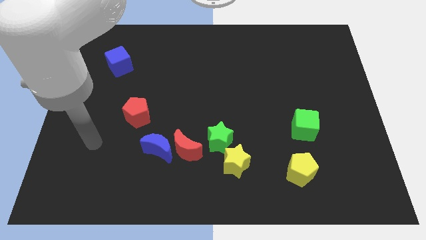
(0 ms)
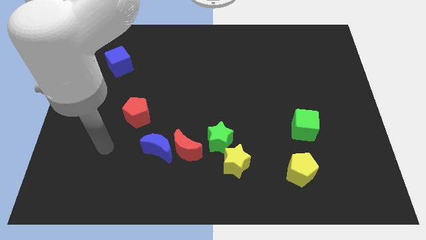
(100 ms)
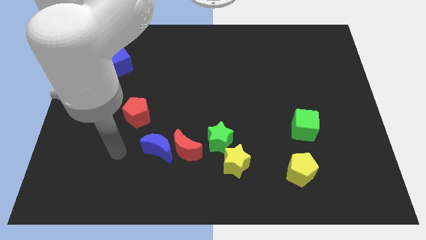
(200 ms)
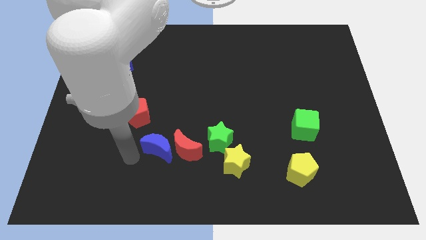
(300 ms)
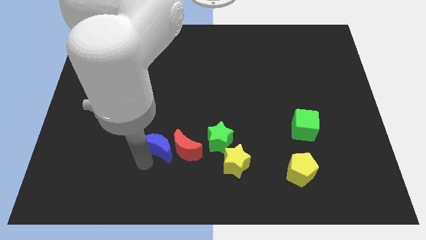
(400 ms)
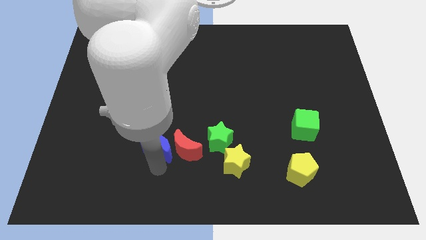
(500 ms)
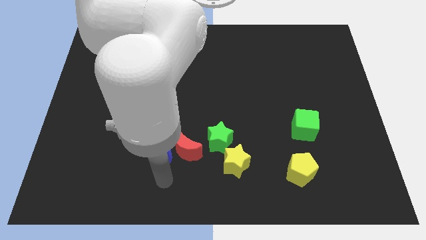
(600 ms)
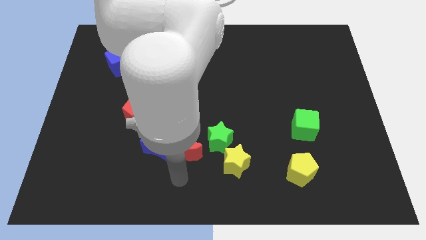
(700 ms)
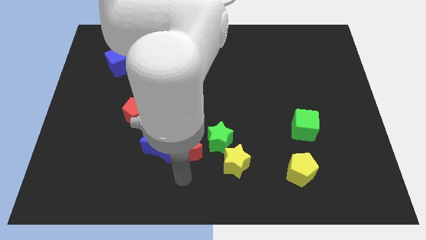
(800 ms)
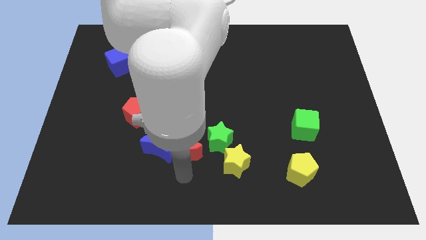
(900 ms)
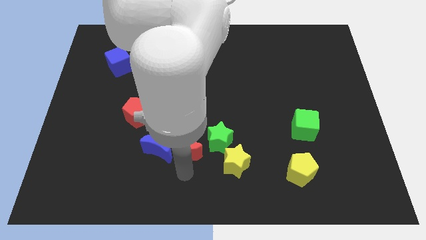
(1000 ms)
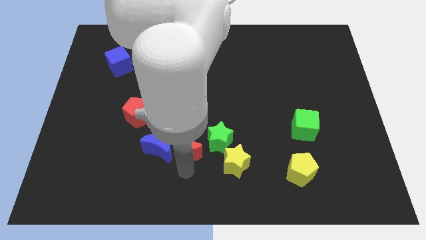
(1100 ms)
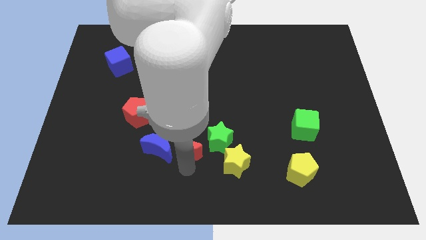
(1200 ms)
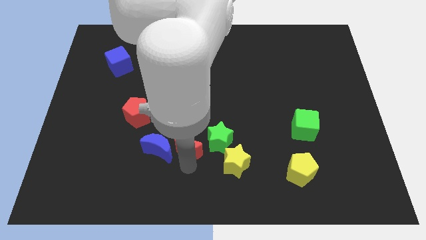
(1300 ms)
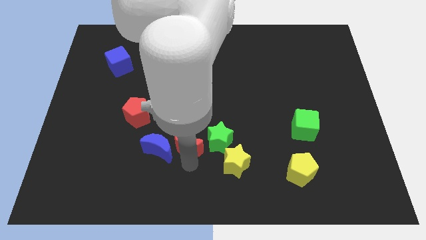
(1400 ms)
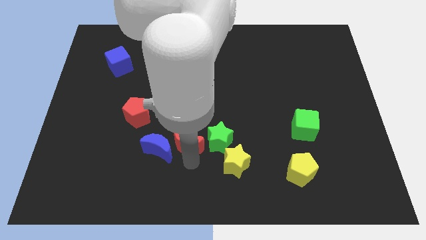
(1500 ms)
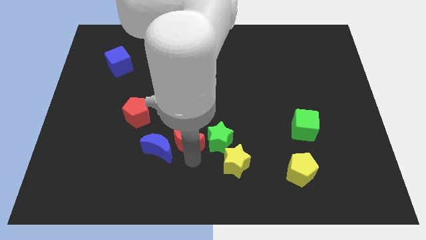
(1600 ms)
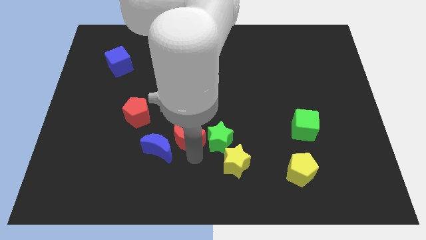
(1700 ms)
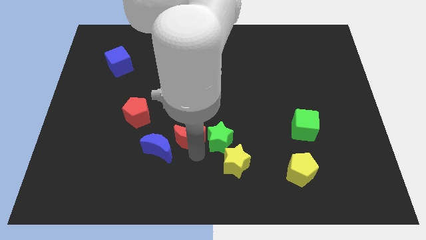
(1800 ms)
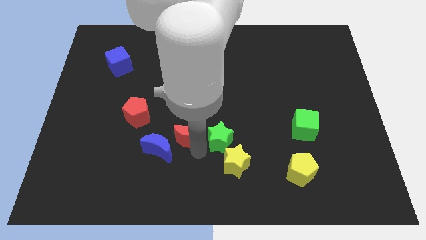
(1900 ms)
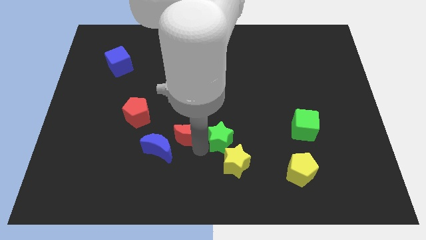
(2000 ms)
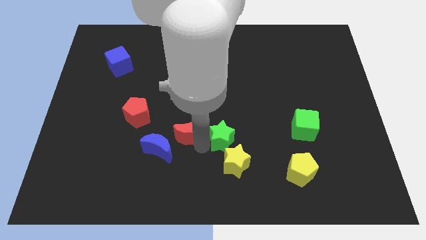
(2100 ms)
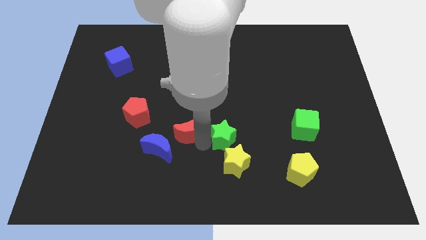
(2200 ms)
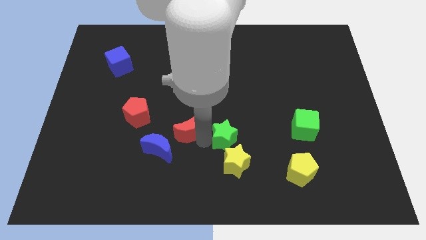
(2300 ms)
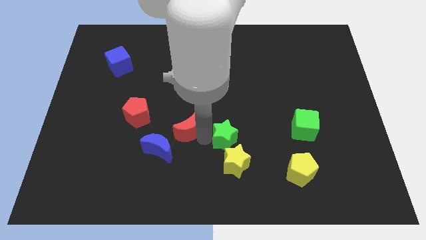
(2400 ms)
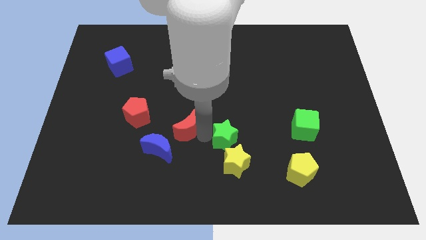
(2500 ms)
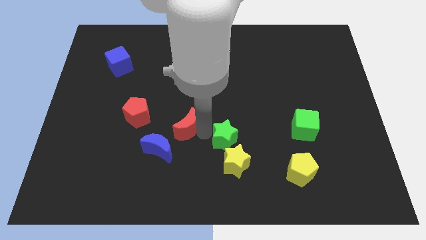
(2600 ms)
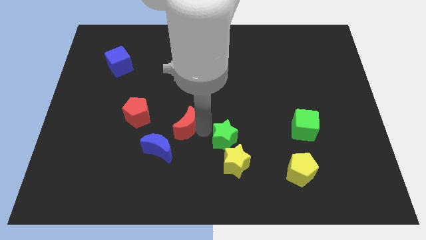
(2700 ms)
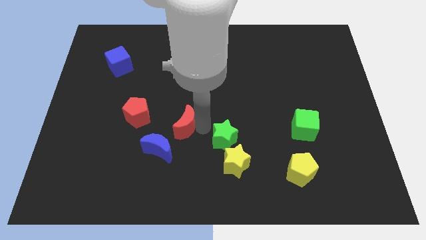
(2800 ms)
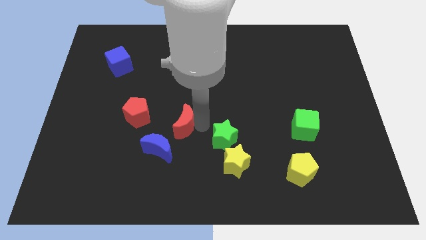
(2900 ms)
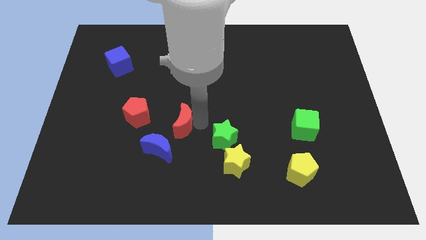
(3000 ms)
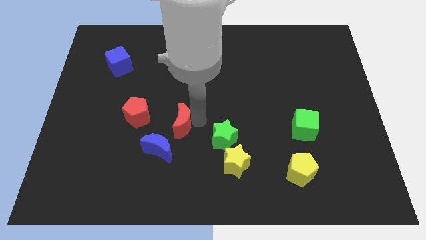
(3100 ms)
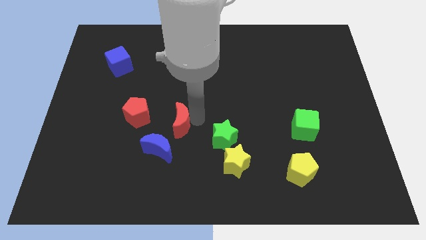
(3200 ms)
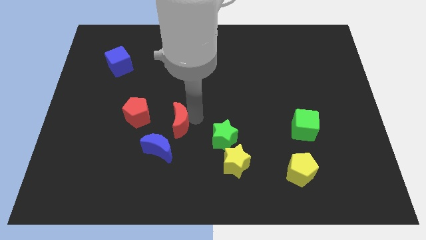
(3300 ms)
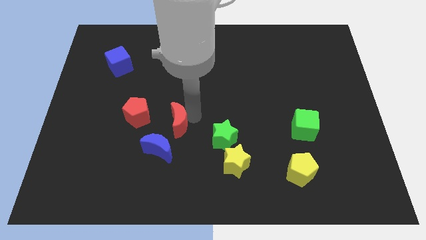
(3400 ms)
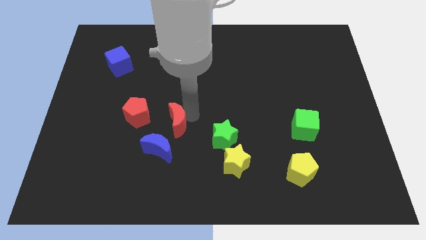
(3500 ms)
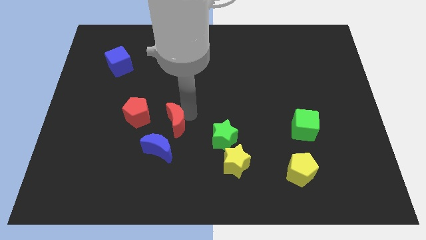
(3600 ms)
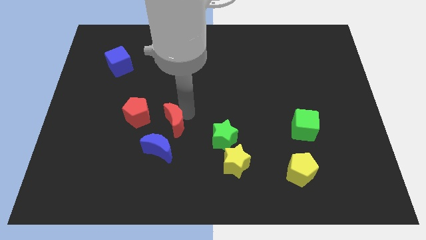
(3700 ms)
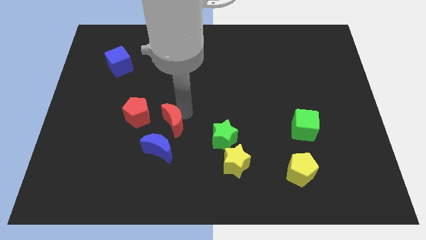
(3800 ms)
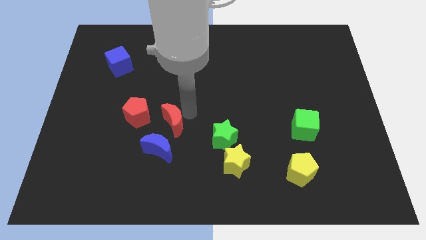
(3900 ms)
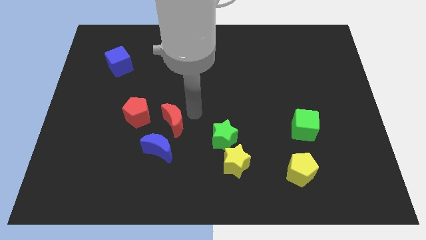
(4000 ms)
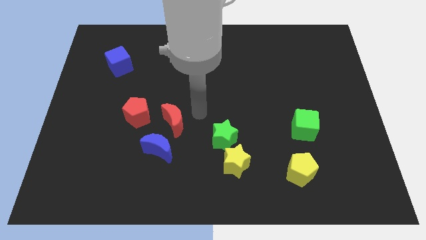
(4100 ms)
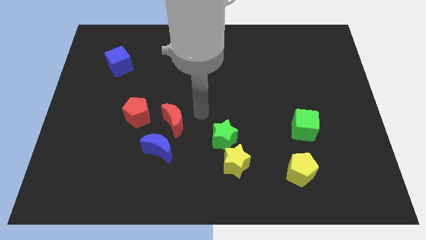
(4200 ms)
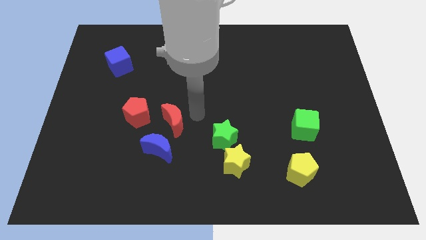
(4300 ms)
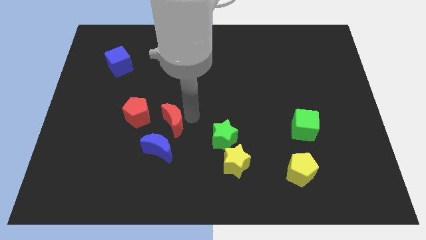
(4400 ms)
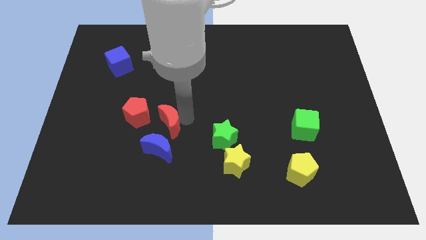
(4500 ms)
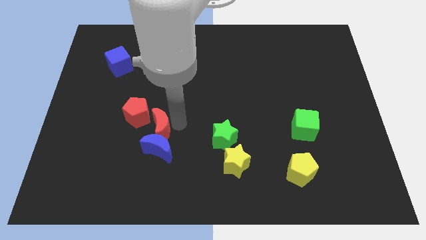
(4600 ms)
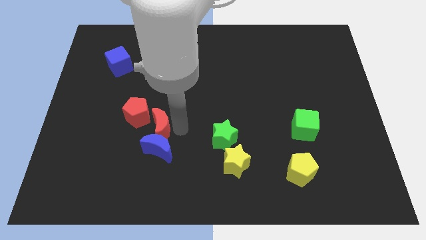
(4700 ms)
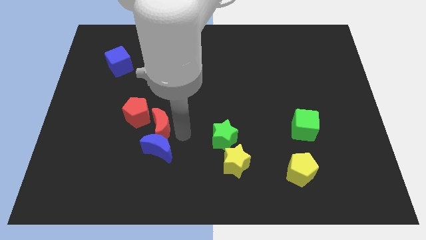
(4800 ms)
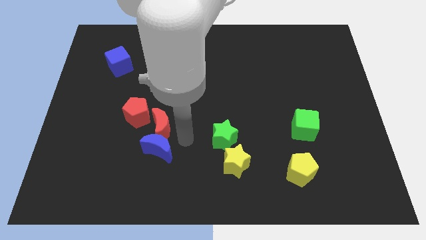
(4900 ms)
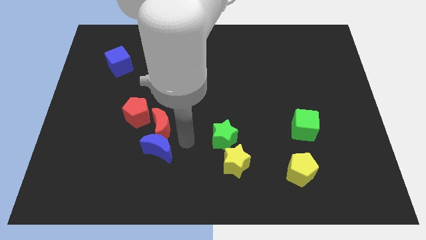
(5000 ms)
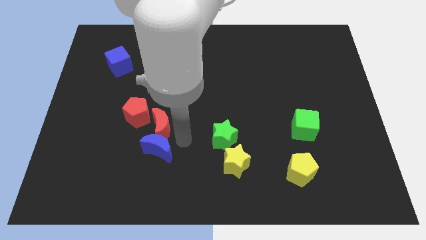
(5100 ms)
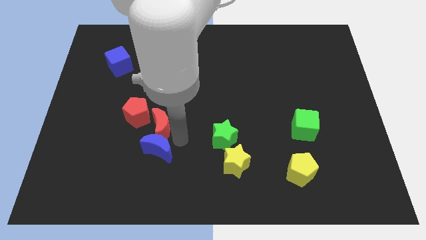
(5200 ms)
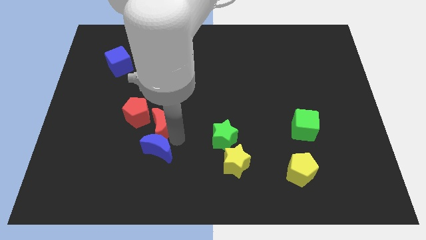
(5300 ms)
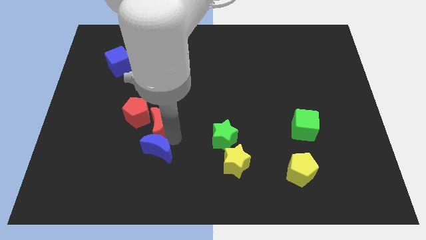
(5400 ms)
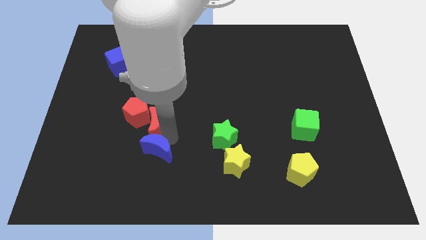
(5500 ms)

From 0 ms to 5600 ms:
move the red moon towards the red pentagon

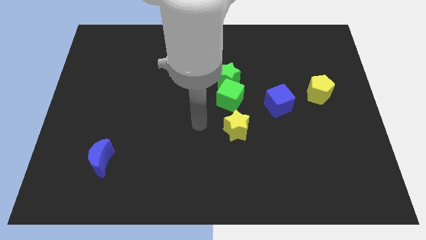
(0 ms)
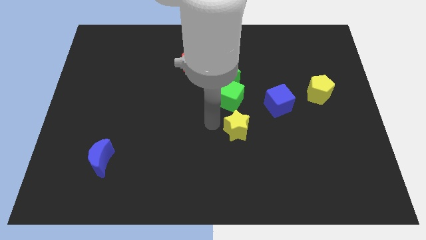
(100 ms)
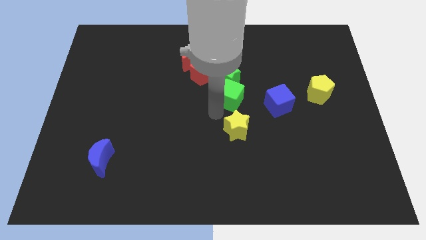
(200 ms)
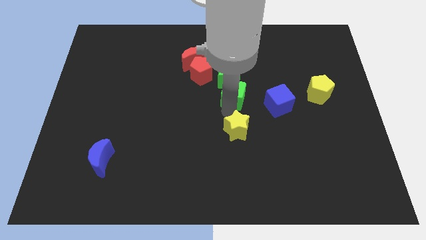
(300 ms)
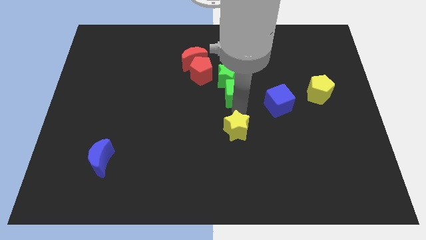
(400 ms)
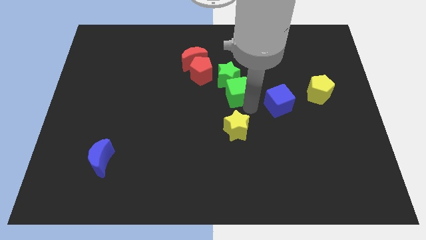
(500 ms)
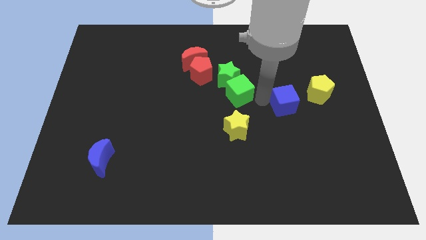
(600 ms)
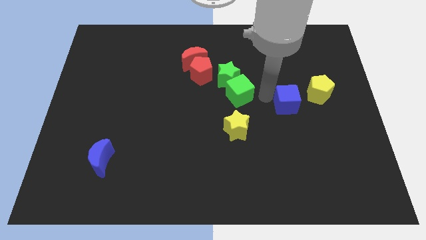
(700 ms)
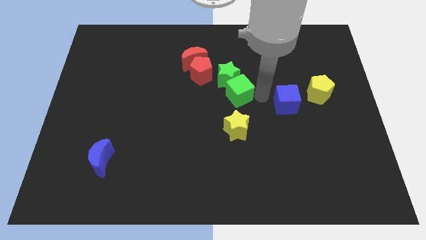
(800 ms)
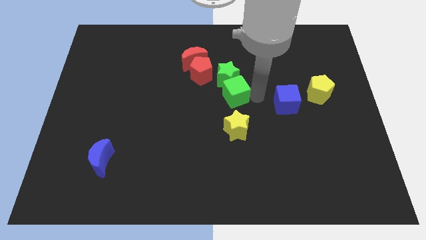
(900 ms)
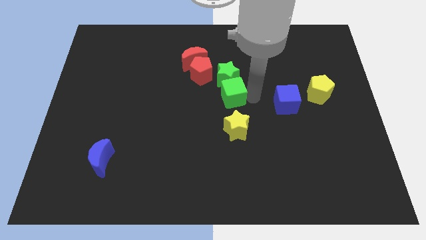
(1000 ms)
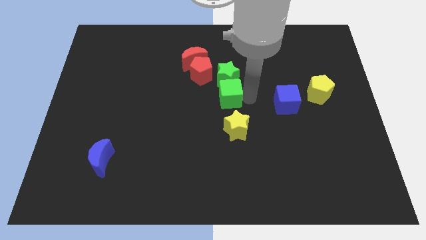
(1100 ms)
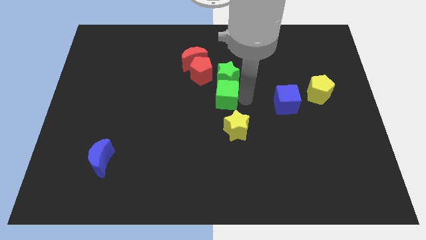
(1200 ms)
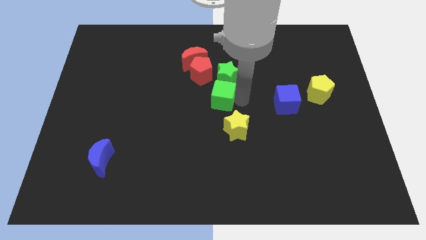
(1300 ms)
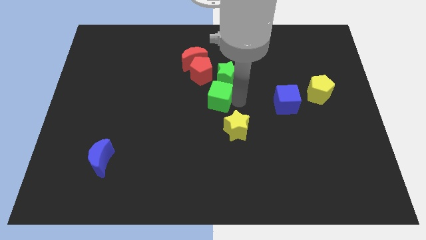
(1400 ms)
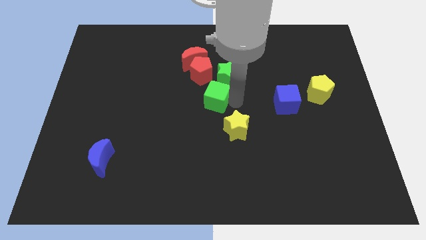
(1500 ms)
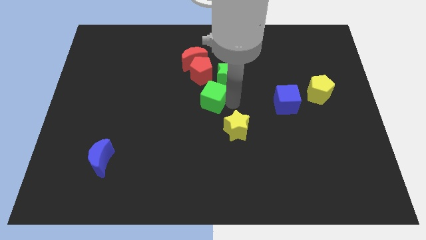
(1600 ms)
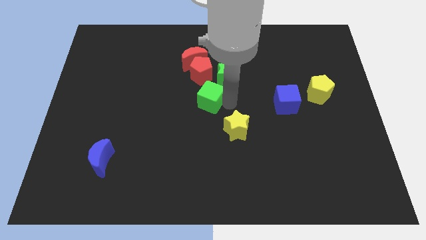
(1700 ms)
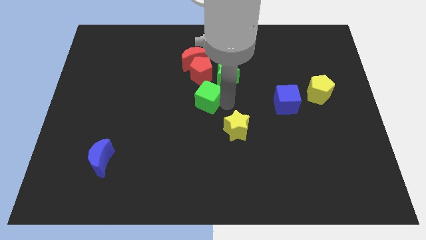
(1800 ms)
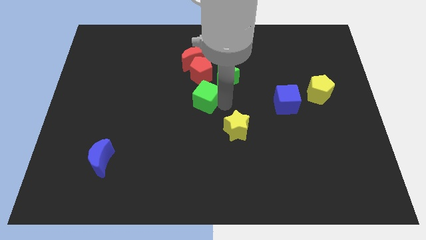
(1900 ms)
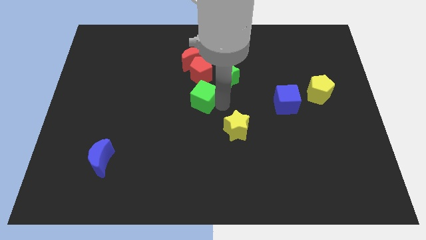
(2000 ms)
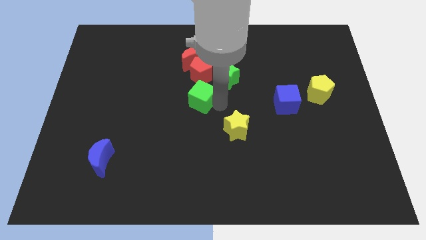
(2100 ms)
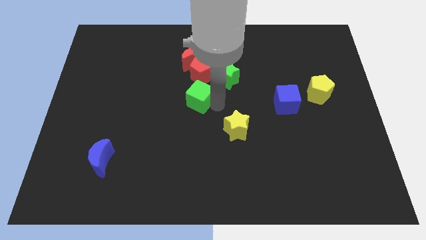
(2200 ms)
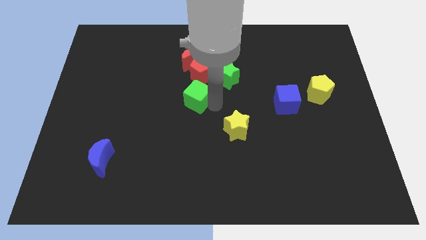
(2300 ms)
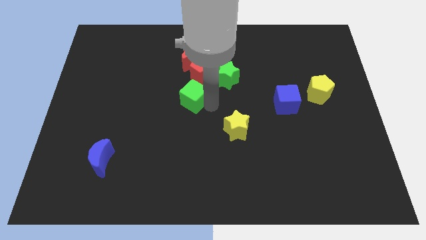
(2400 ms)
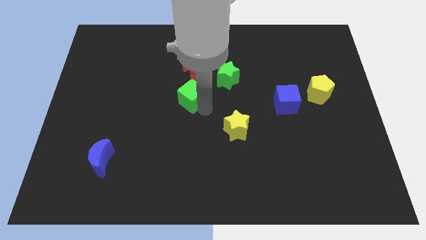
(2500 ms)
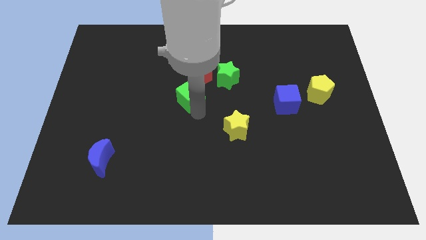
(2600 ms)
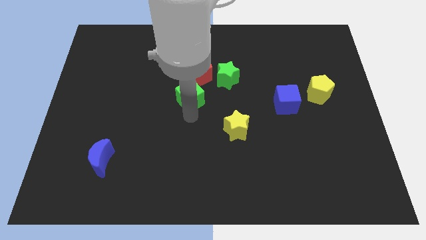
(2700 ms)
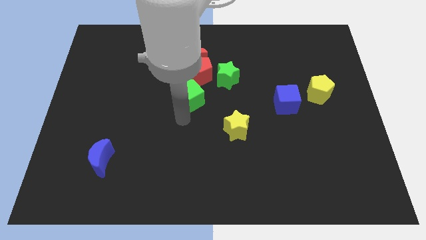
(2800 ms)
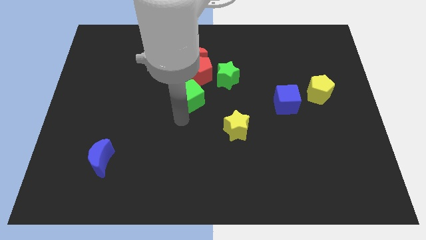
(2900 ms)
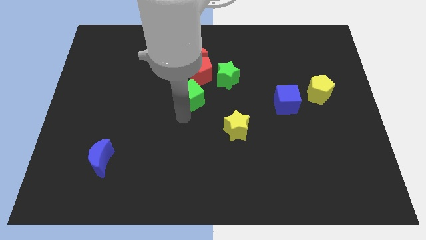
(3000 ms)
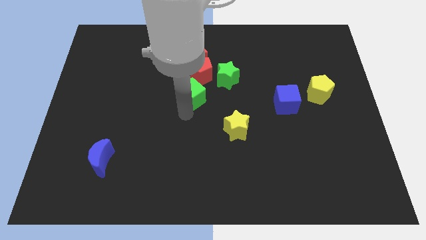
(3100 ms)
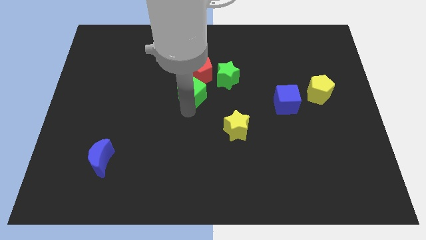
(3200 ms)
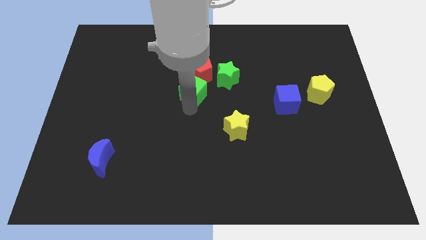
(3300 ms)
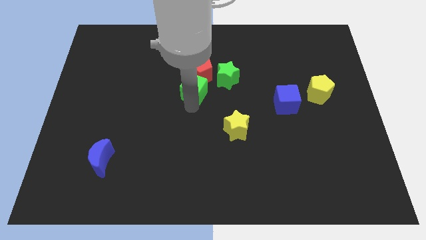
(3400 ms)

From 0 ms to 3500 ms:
slide the green cube to the red pentagon
